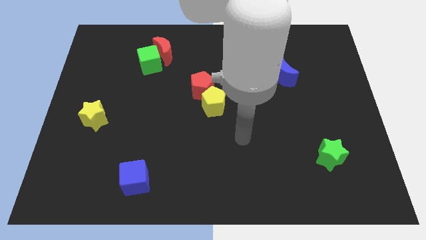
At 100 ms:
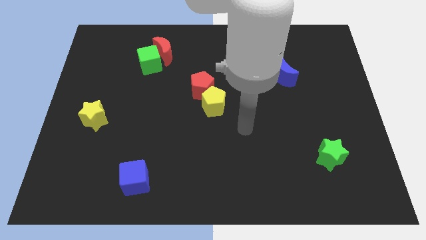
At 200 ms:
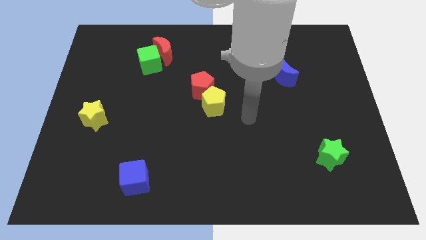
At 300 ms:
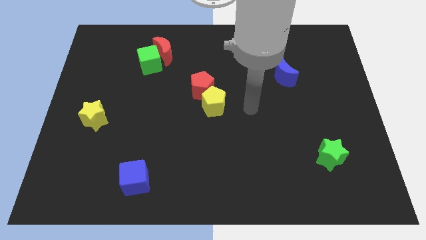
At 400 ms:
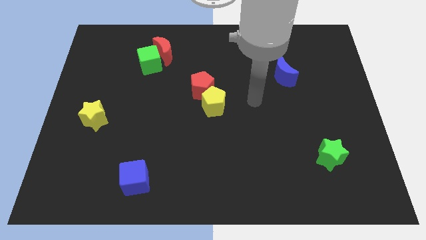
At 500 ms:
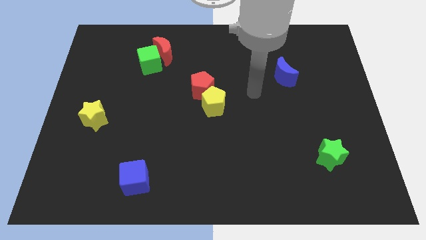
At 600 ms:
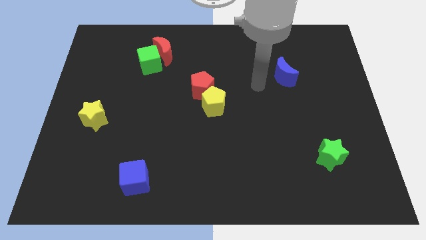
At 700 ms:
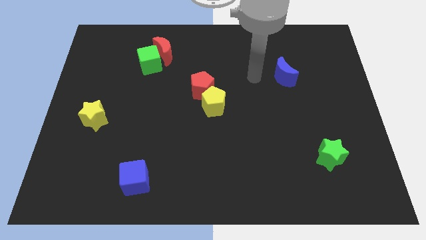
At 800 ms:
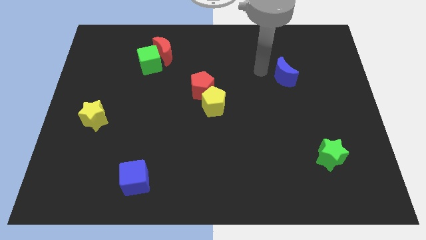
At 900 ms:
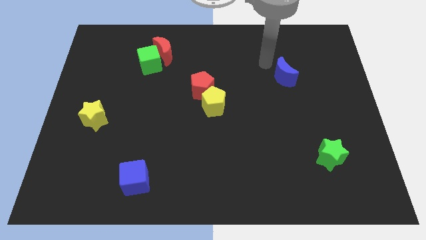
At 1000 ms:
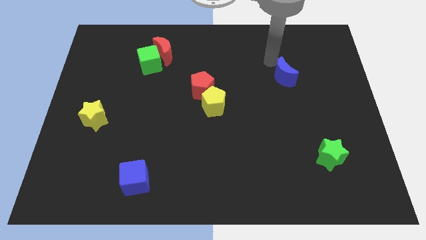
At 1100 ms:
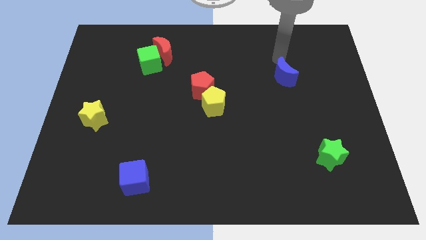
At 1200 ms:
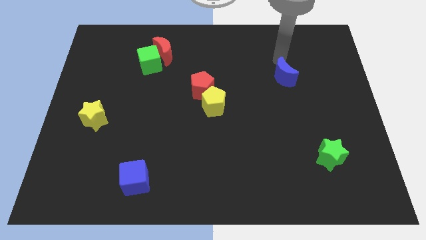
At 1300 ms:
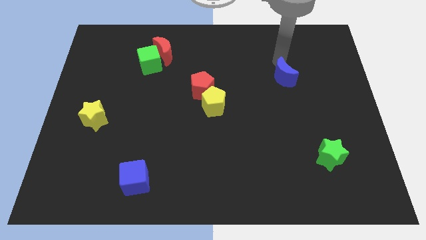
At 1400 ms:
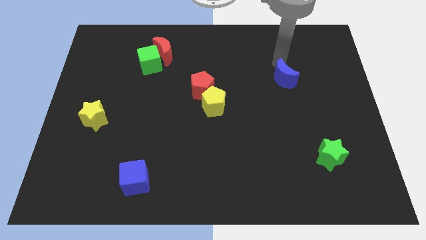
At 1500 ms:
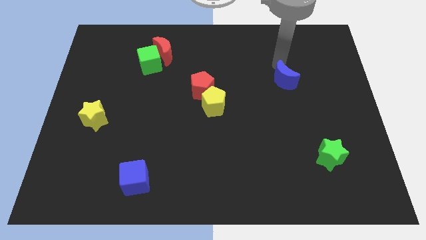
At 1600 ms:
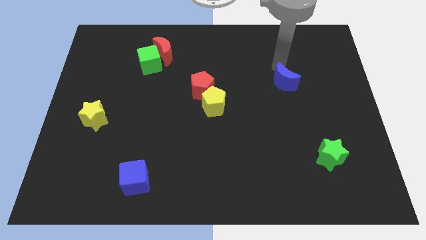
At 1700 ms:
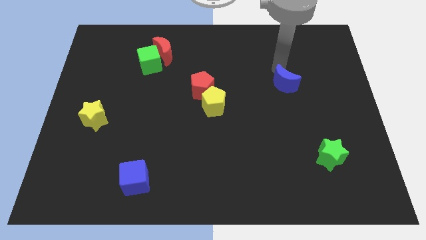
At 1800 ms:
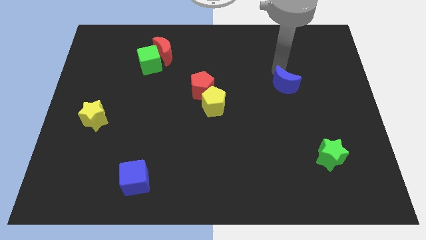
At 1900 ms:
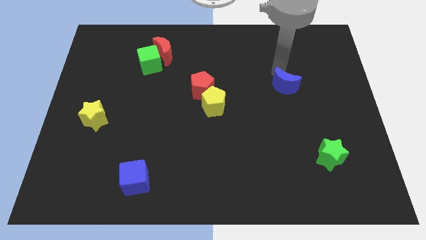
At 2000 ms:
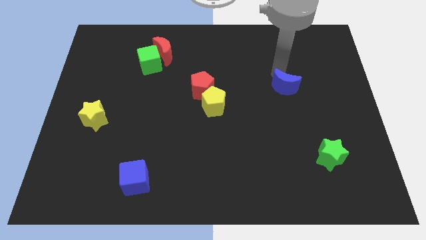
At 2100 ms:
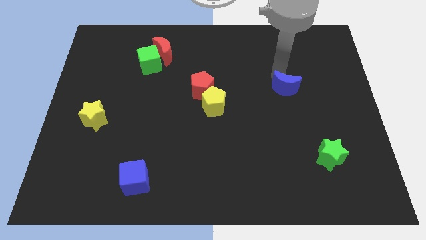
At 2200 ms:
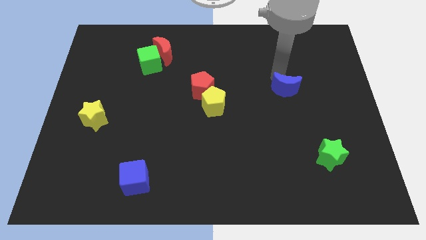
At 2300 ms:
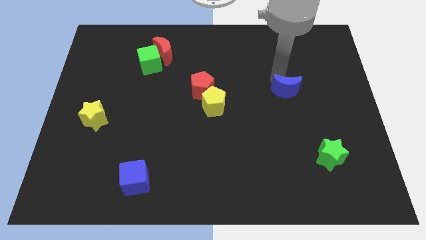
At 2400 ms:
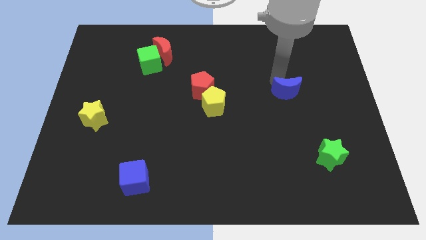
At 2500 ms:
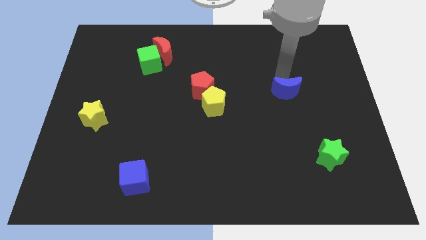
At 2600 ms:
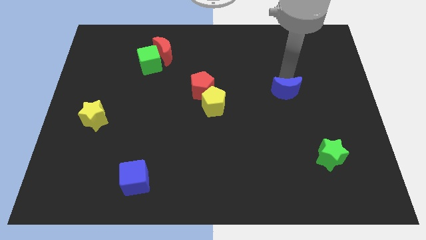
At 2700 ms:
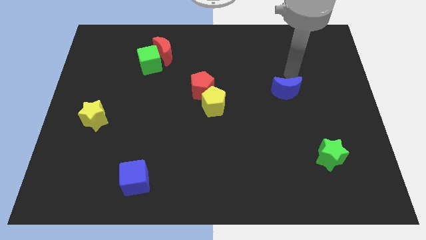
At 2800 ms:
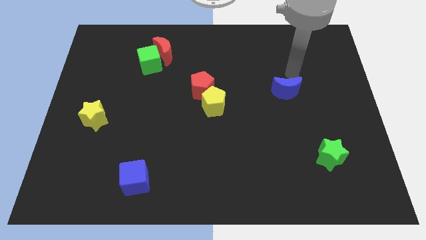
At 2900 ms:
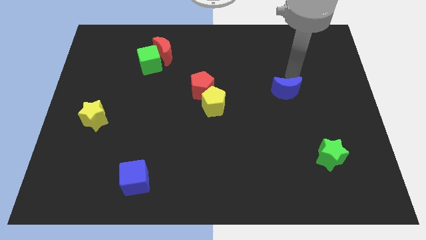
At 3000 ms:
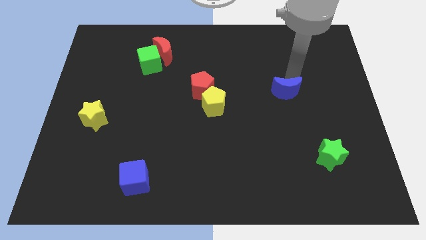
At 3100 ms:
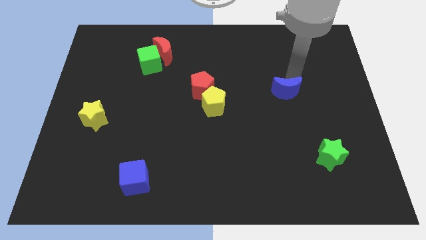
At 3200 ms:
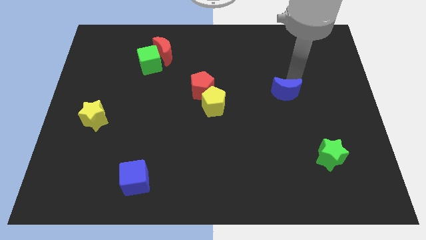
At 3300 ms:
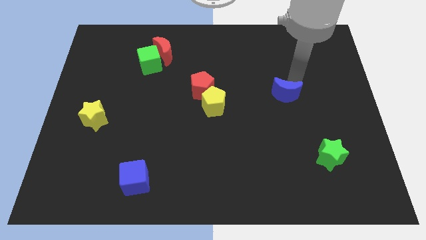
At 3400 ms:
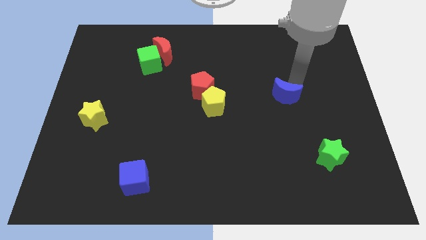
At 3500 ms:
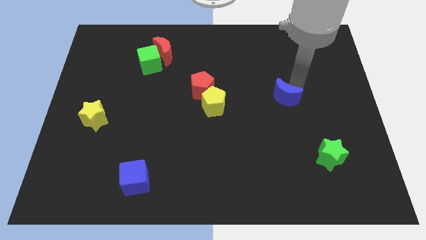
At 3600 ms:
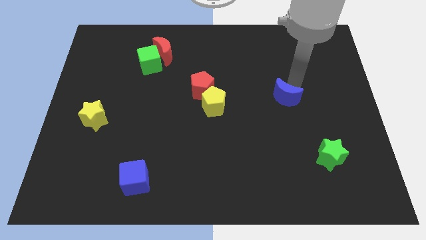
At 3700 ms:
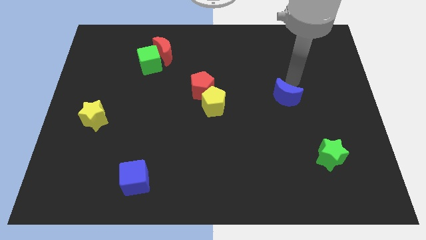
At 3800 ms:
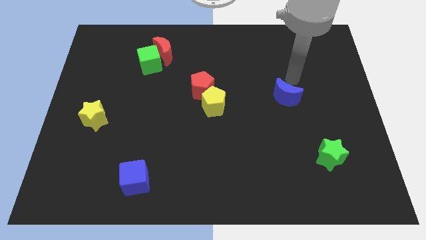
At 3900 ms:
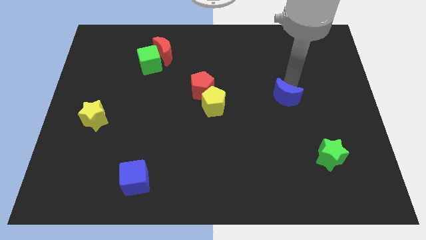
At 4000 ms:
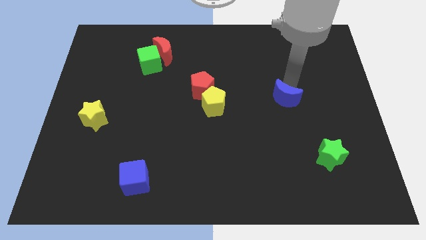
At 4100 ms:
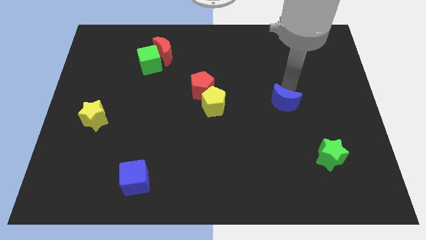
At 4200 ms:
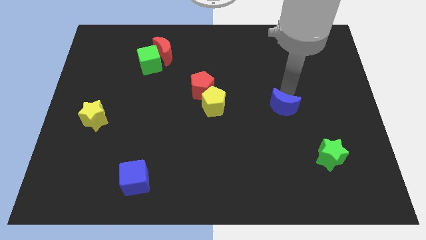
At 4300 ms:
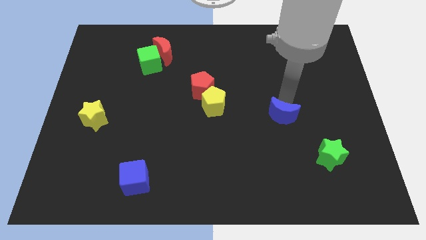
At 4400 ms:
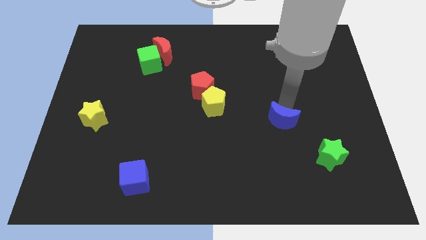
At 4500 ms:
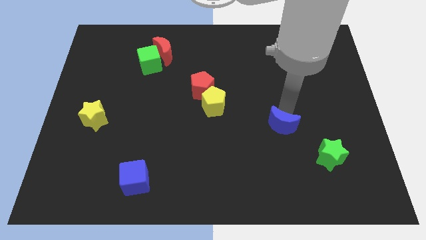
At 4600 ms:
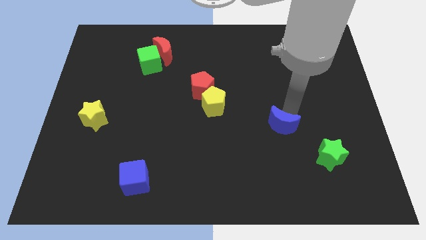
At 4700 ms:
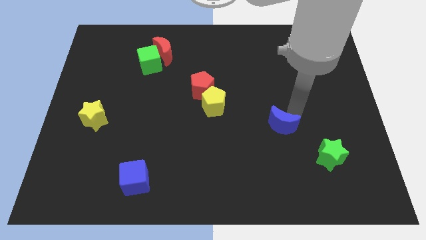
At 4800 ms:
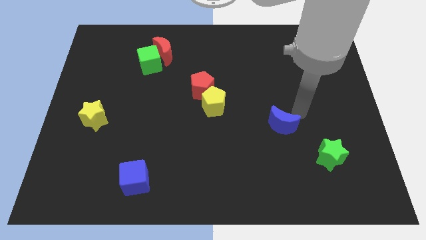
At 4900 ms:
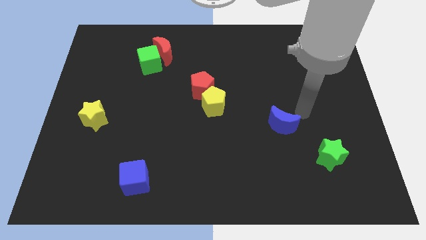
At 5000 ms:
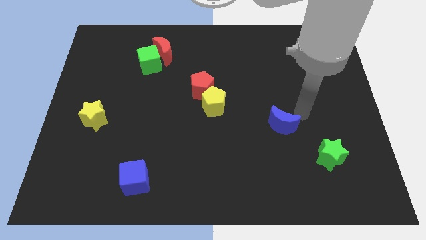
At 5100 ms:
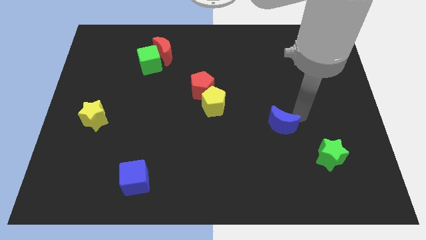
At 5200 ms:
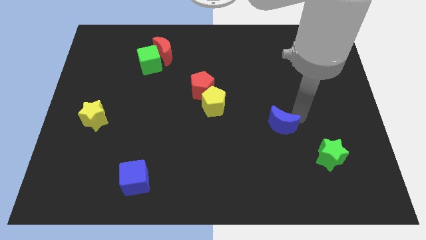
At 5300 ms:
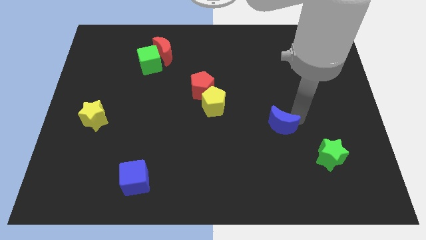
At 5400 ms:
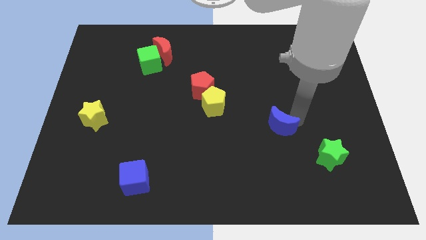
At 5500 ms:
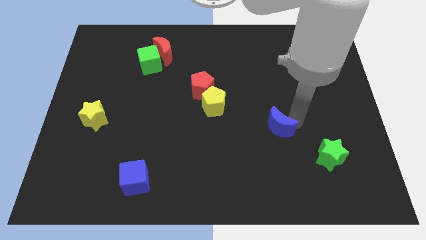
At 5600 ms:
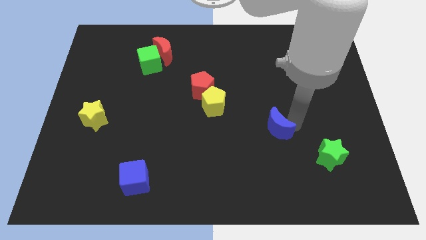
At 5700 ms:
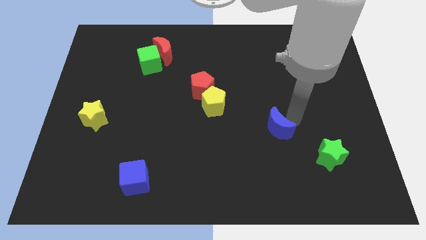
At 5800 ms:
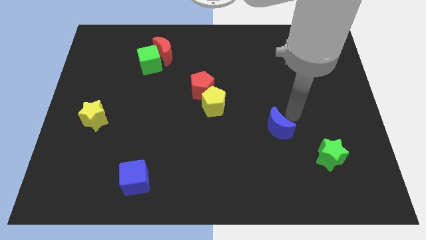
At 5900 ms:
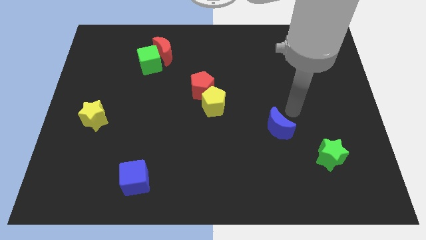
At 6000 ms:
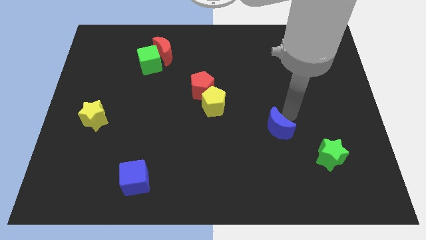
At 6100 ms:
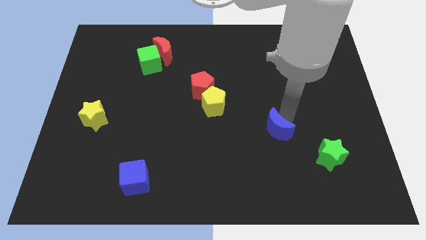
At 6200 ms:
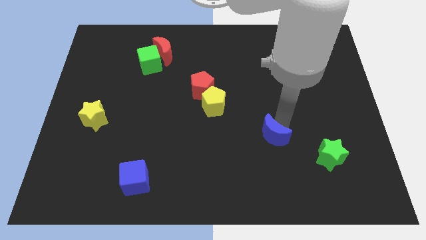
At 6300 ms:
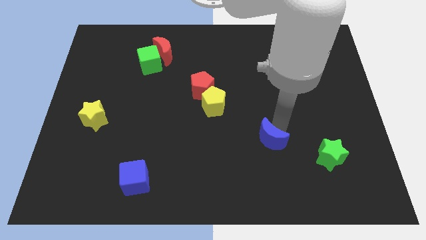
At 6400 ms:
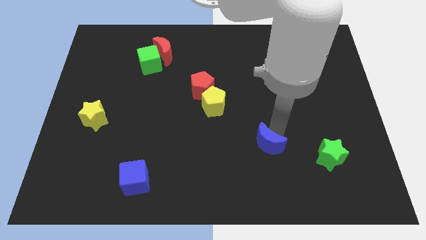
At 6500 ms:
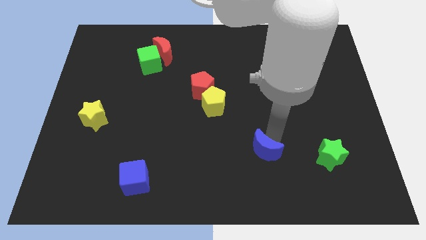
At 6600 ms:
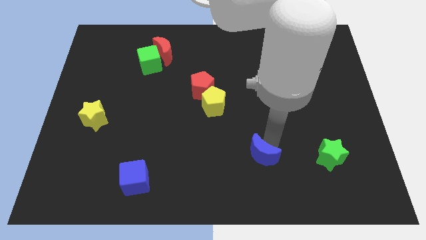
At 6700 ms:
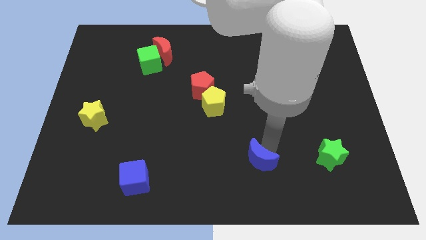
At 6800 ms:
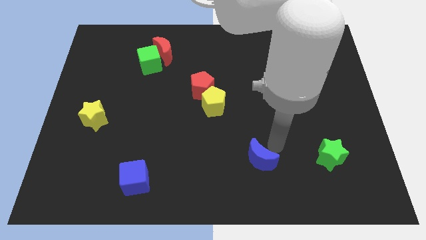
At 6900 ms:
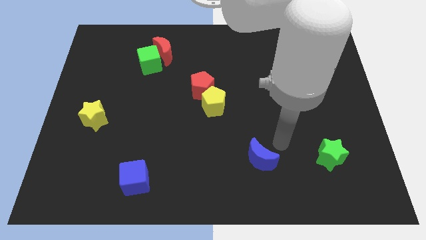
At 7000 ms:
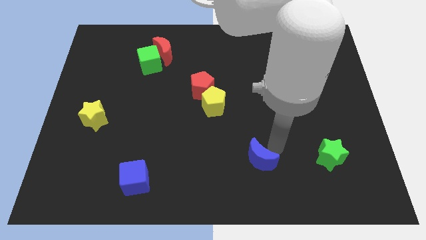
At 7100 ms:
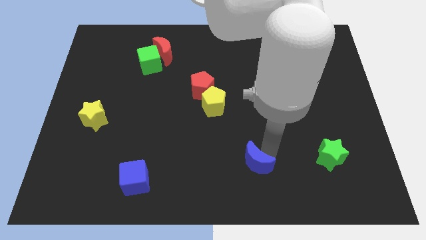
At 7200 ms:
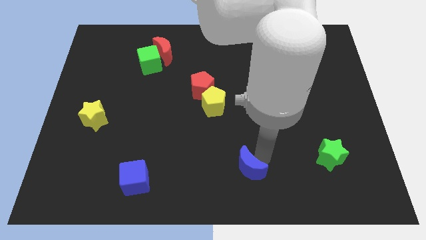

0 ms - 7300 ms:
put the blue moon to the bottom side
